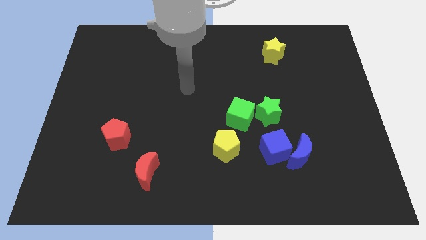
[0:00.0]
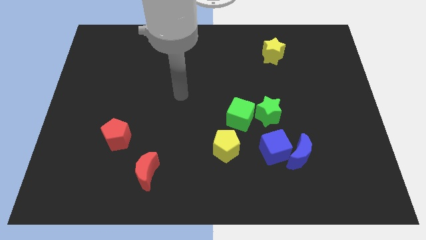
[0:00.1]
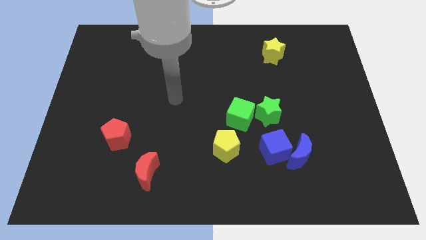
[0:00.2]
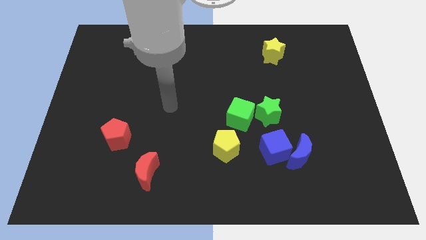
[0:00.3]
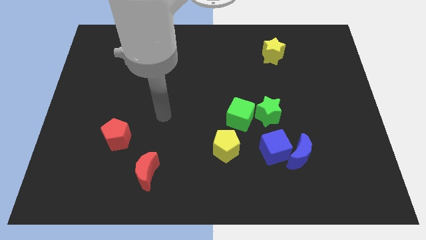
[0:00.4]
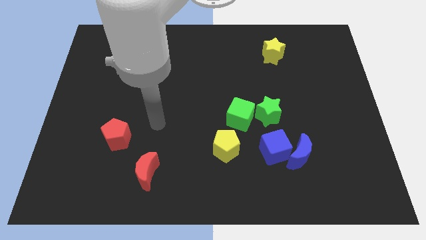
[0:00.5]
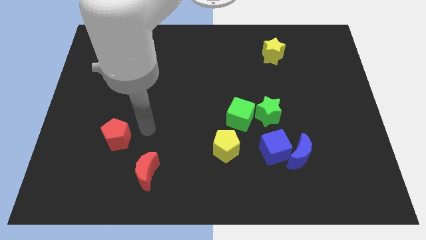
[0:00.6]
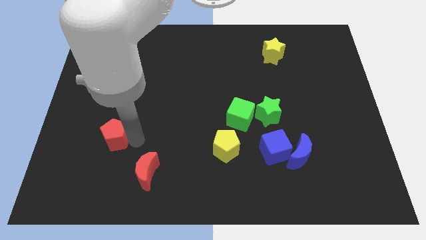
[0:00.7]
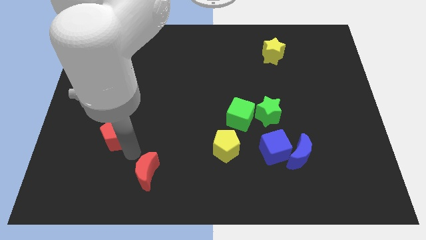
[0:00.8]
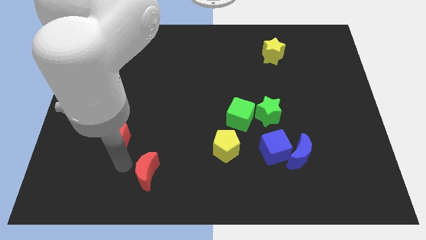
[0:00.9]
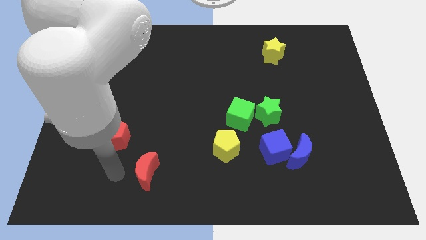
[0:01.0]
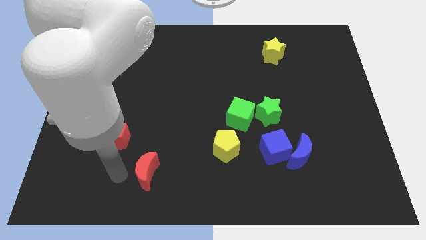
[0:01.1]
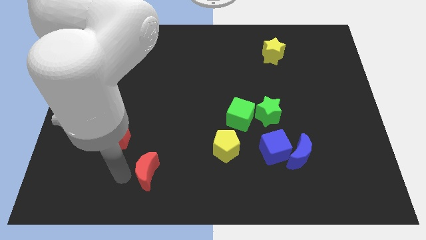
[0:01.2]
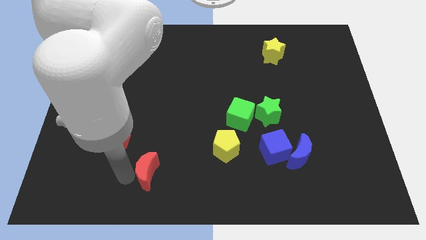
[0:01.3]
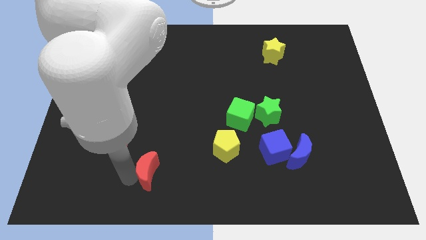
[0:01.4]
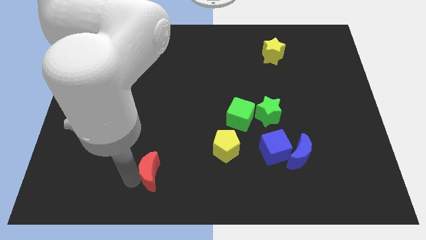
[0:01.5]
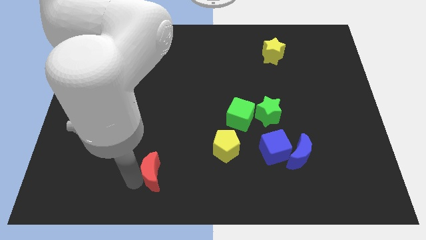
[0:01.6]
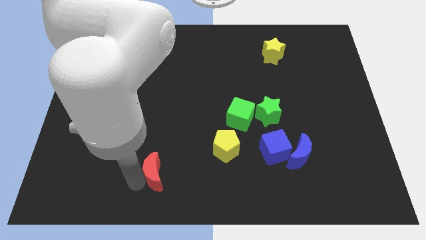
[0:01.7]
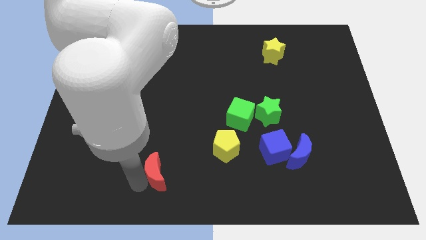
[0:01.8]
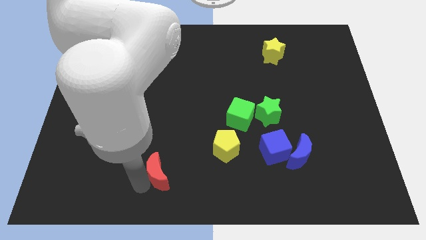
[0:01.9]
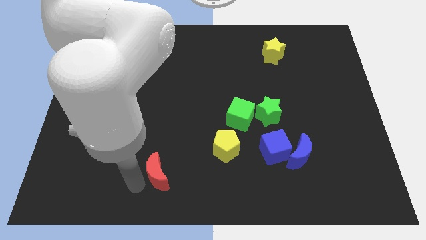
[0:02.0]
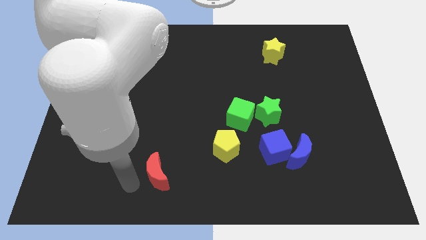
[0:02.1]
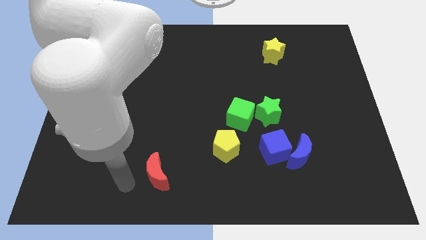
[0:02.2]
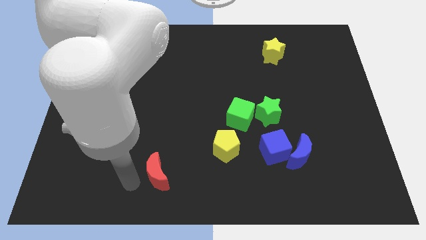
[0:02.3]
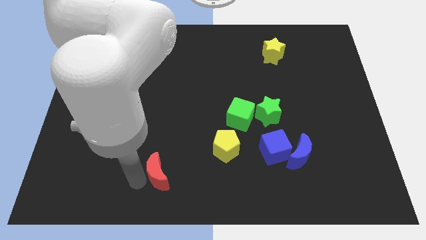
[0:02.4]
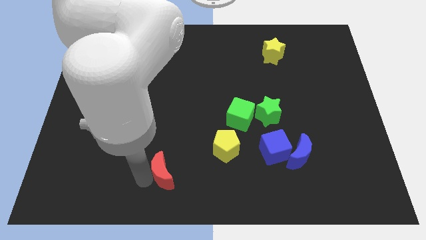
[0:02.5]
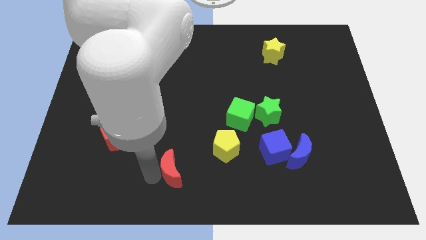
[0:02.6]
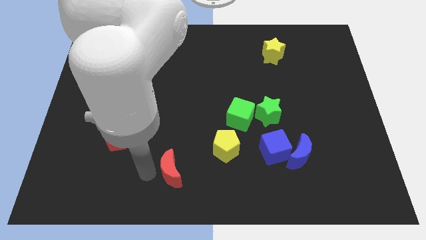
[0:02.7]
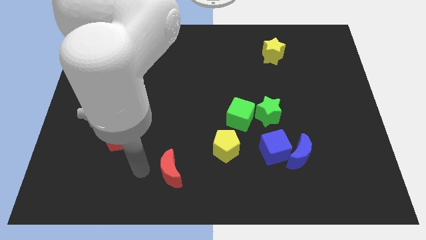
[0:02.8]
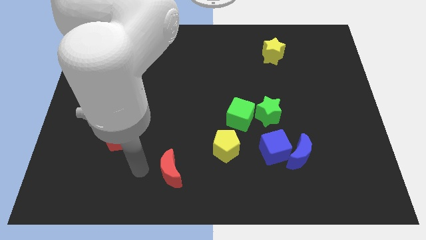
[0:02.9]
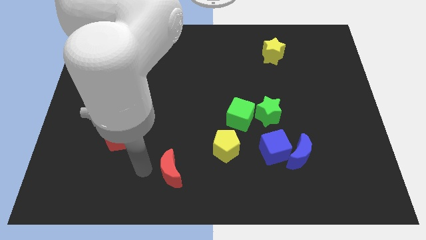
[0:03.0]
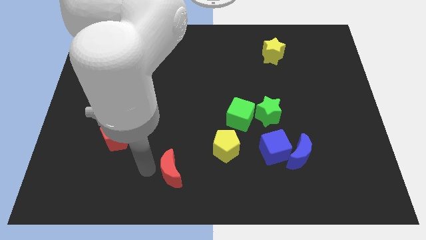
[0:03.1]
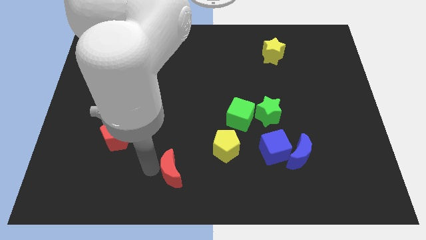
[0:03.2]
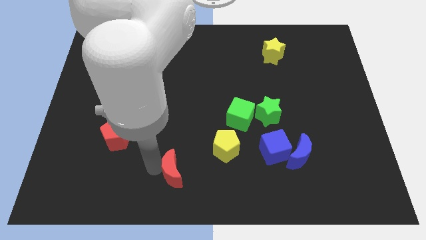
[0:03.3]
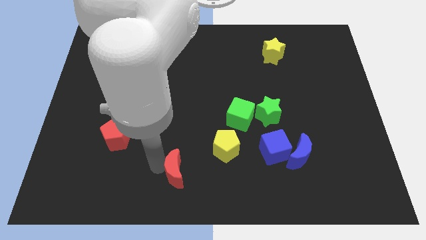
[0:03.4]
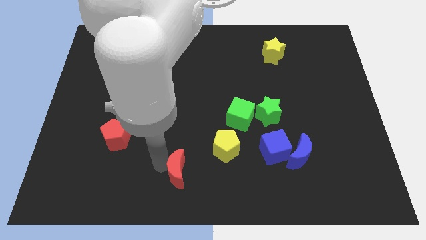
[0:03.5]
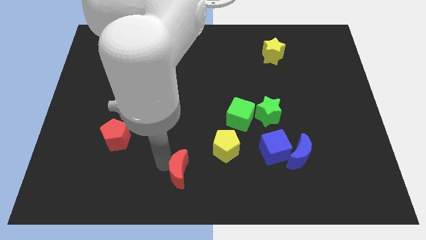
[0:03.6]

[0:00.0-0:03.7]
push the red moon a little to the right

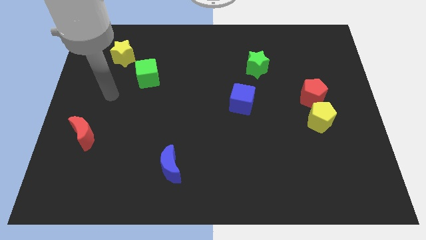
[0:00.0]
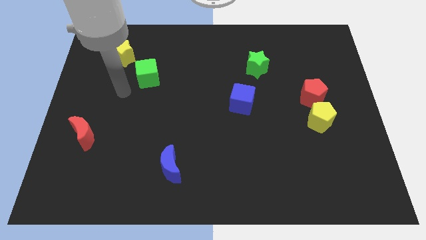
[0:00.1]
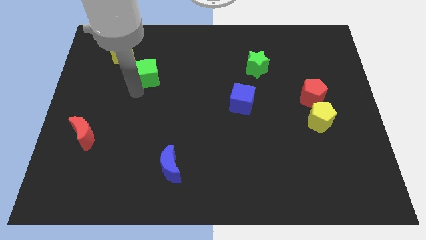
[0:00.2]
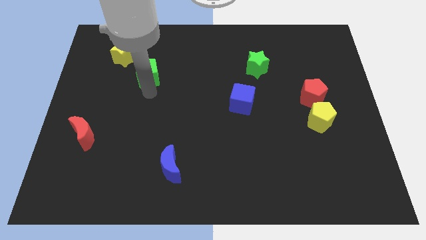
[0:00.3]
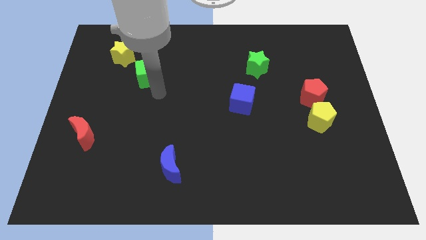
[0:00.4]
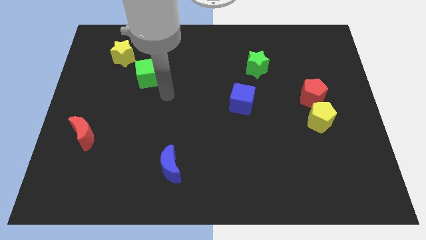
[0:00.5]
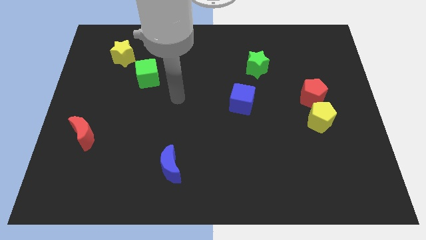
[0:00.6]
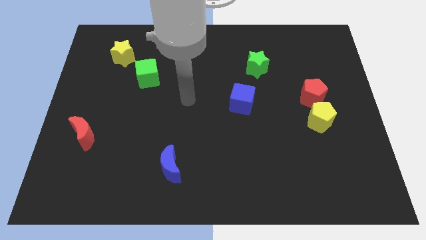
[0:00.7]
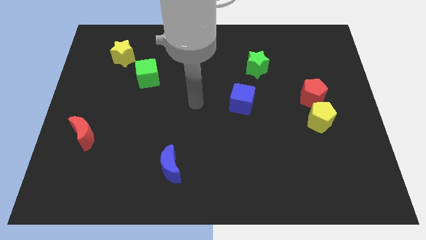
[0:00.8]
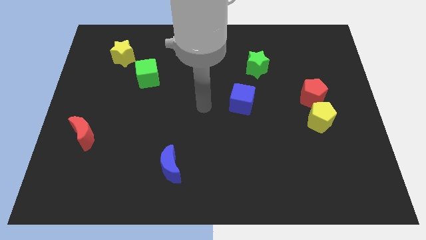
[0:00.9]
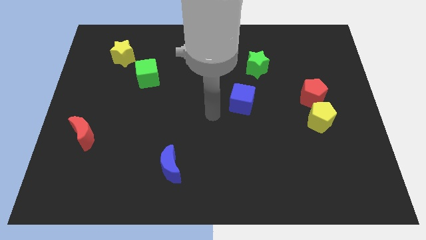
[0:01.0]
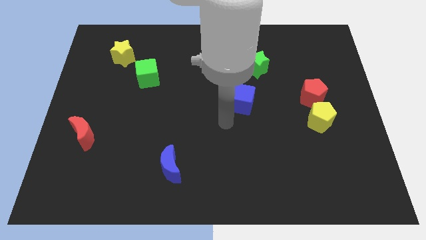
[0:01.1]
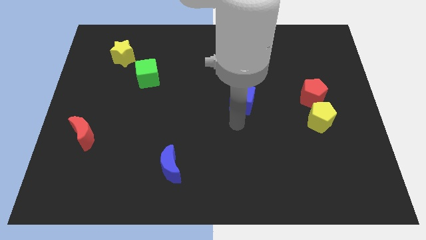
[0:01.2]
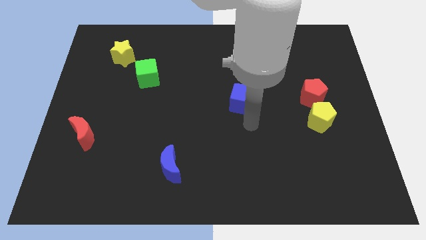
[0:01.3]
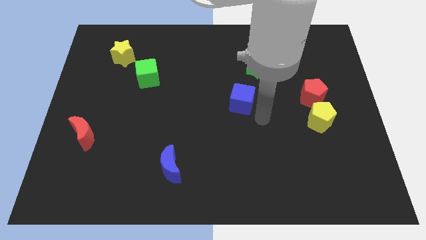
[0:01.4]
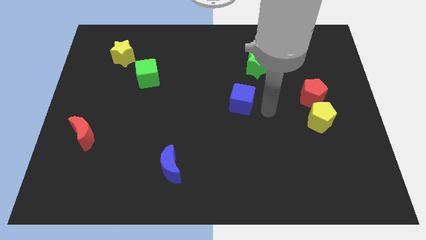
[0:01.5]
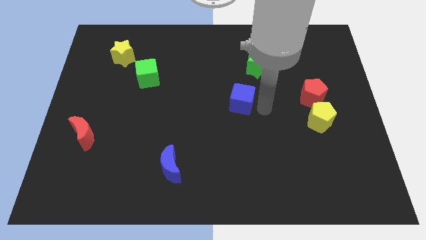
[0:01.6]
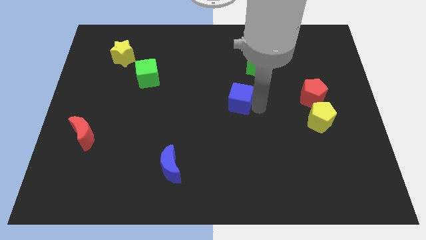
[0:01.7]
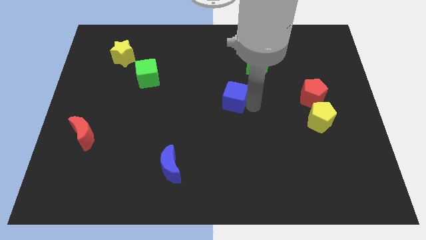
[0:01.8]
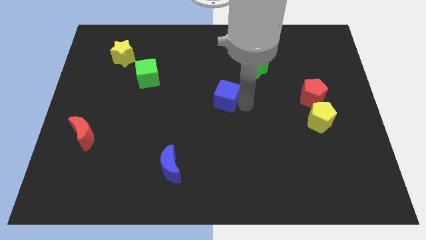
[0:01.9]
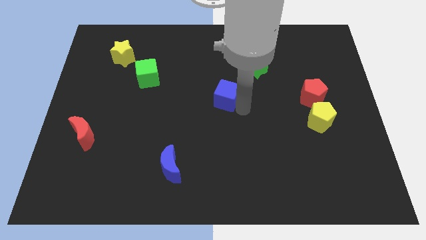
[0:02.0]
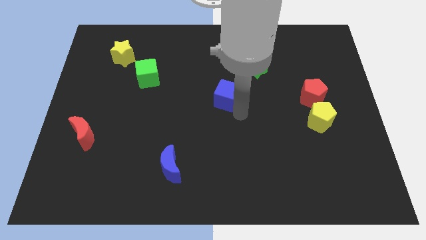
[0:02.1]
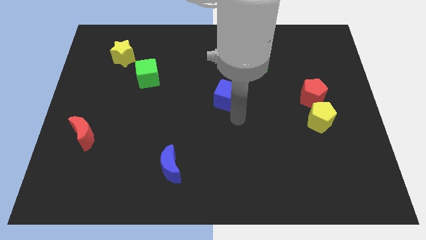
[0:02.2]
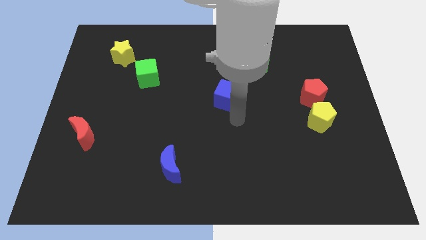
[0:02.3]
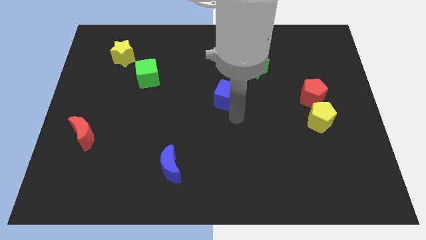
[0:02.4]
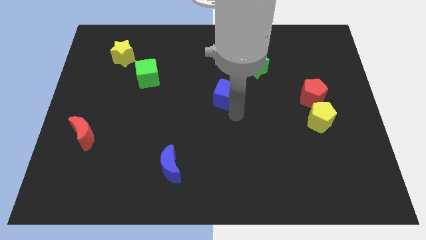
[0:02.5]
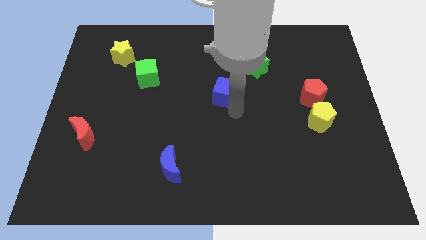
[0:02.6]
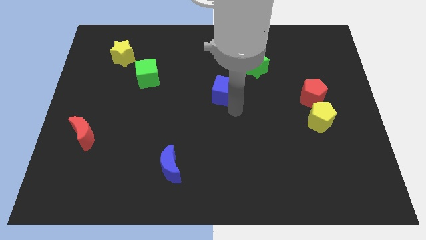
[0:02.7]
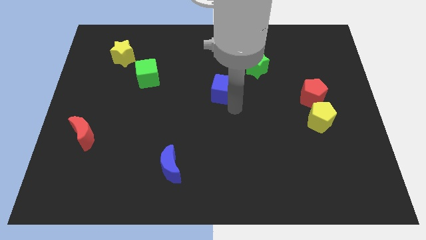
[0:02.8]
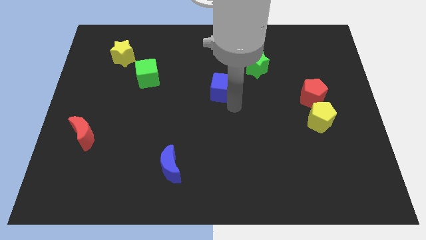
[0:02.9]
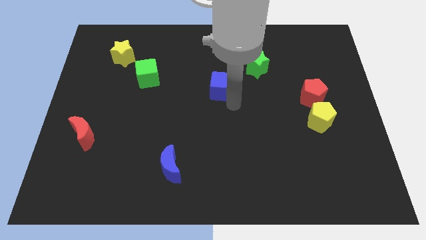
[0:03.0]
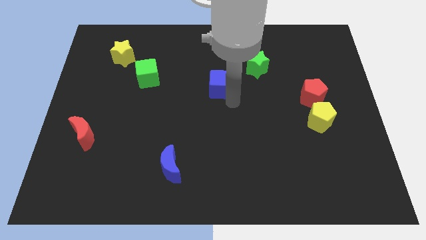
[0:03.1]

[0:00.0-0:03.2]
slightly slide the blue cube upwards and left

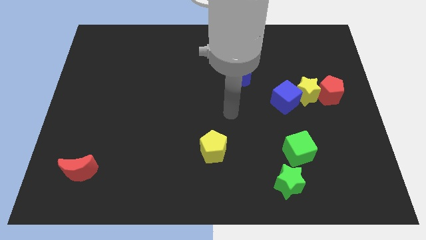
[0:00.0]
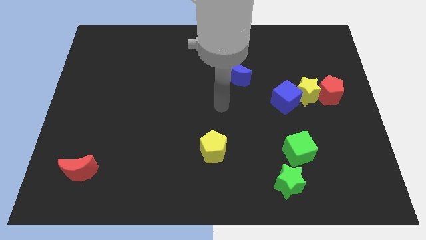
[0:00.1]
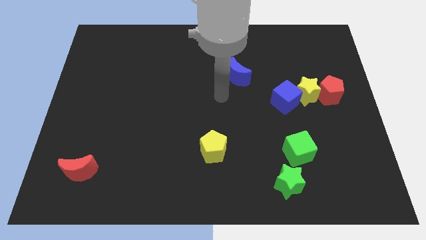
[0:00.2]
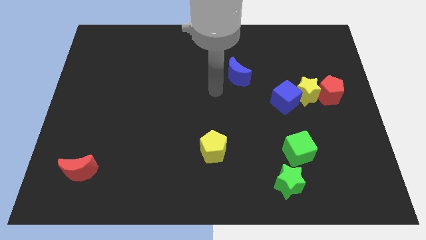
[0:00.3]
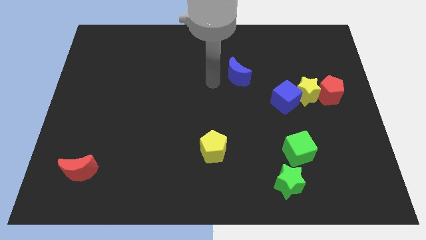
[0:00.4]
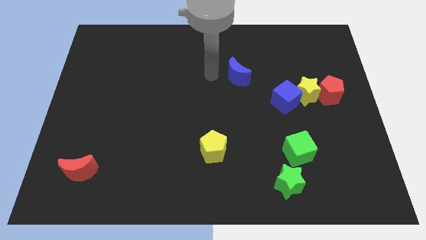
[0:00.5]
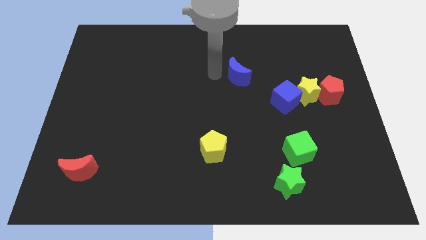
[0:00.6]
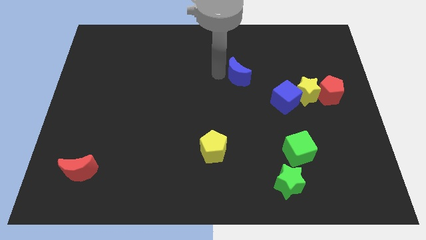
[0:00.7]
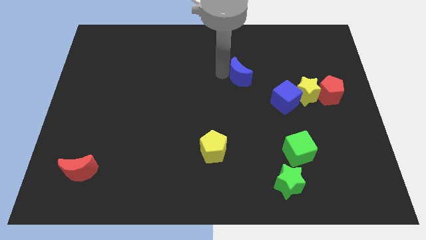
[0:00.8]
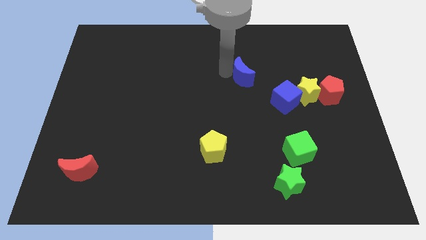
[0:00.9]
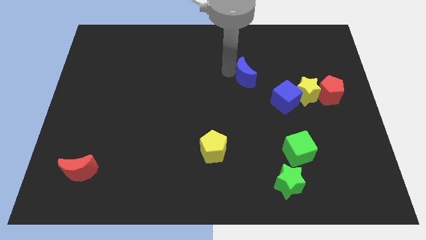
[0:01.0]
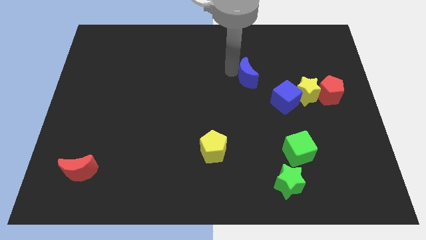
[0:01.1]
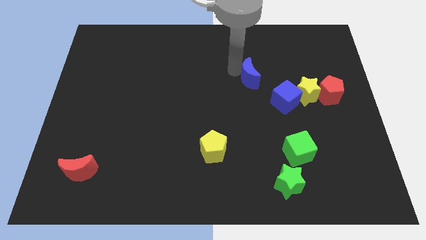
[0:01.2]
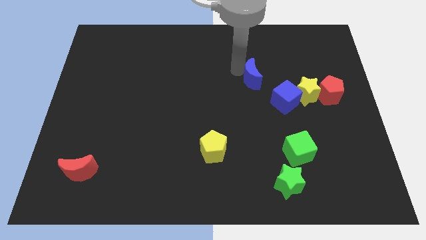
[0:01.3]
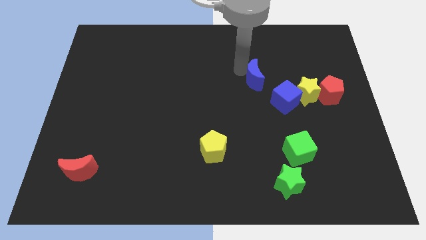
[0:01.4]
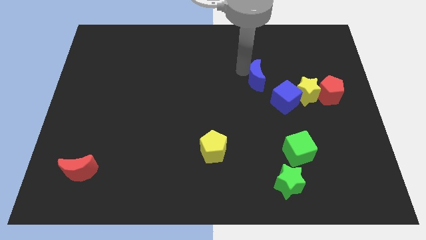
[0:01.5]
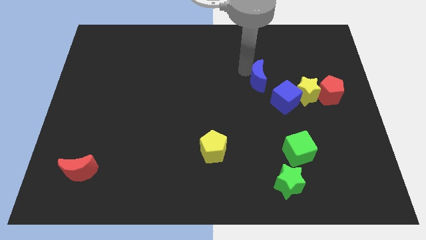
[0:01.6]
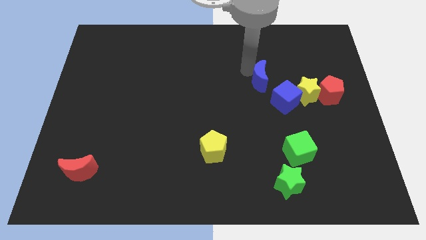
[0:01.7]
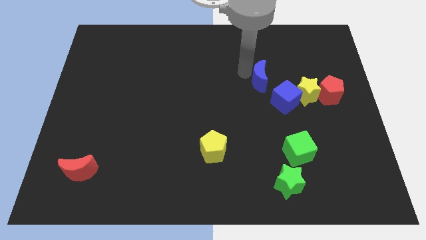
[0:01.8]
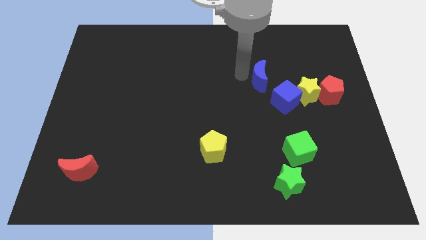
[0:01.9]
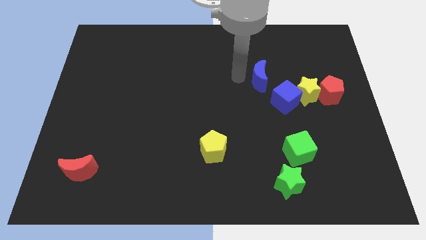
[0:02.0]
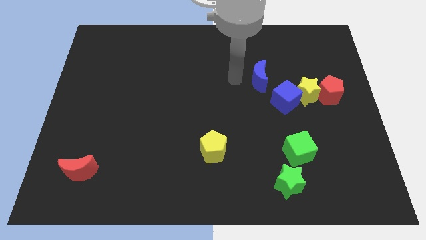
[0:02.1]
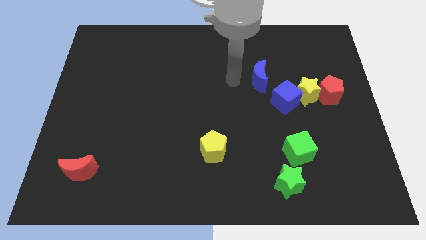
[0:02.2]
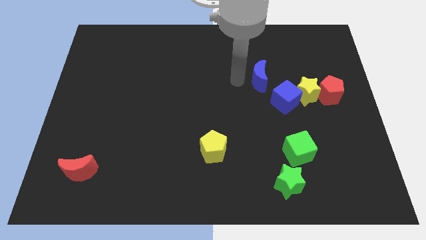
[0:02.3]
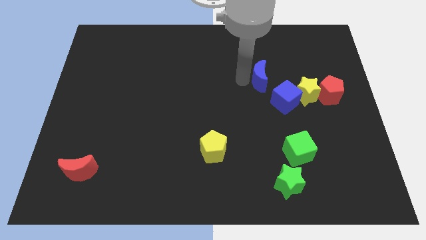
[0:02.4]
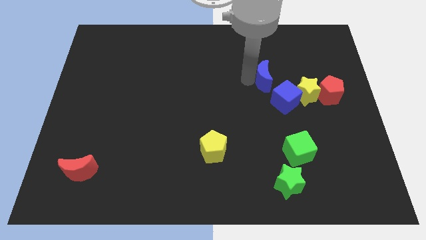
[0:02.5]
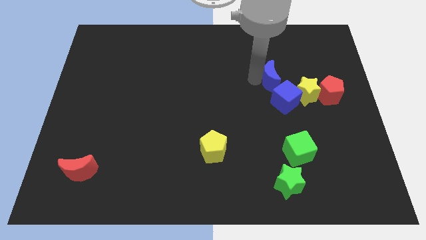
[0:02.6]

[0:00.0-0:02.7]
move the blue moon a bit to the right
